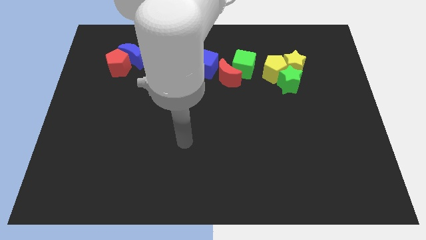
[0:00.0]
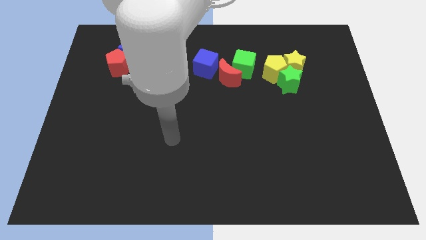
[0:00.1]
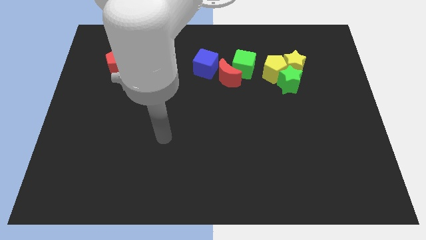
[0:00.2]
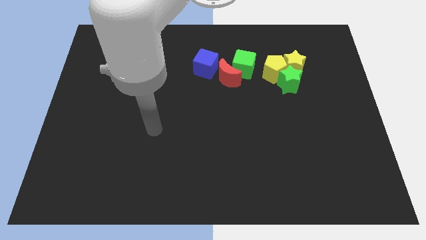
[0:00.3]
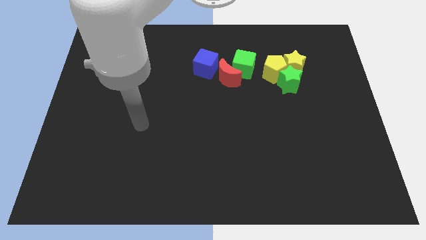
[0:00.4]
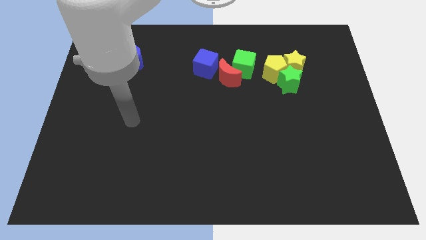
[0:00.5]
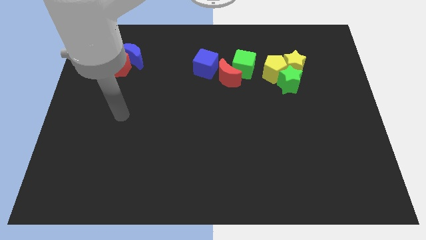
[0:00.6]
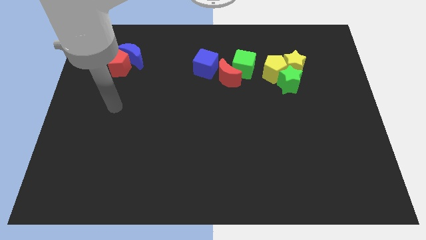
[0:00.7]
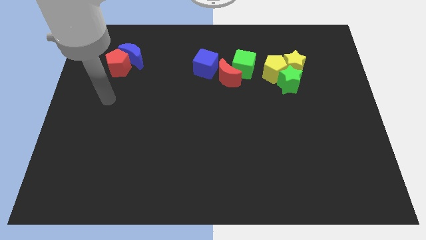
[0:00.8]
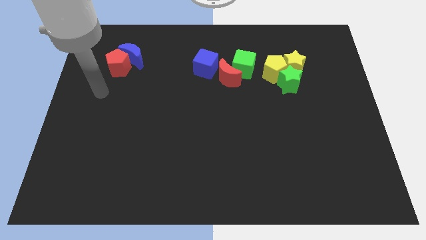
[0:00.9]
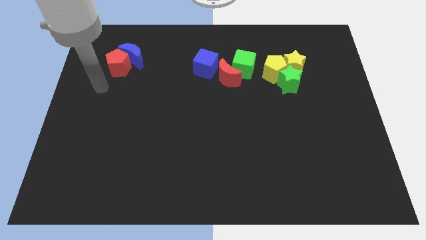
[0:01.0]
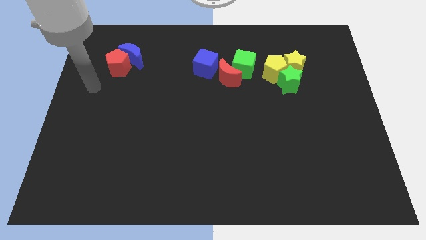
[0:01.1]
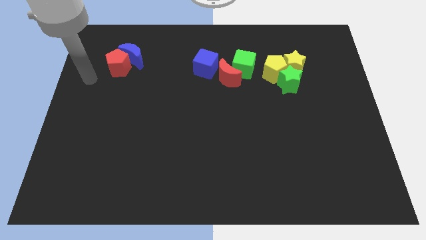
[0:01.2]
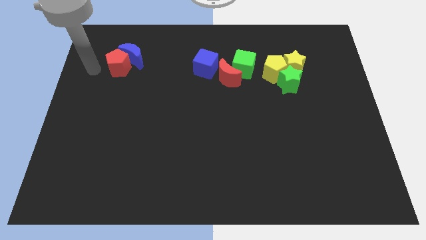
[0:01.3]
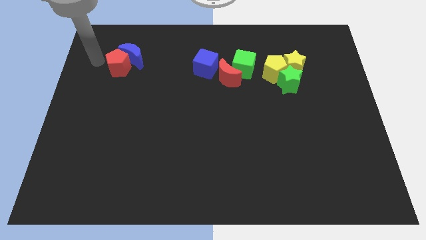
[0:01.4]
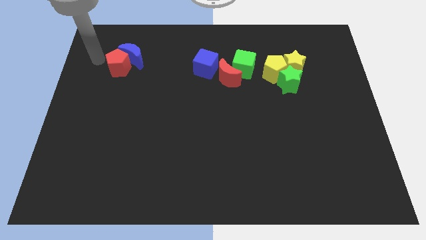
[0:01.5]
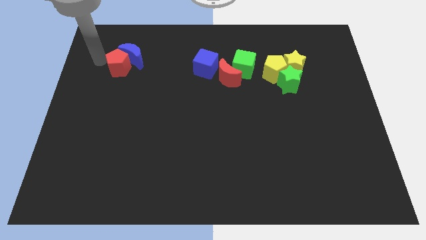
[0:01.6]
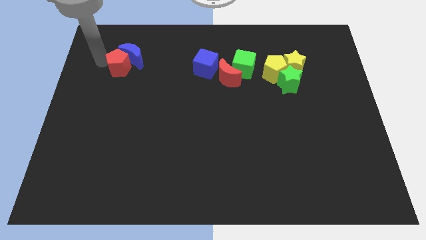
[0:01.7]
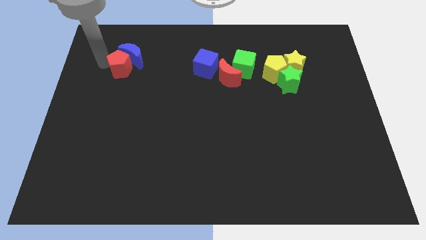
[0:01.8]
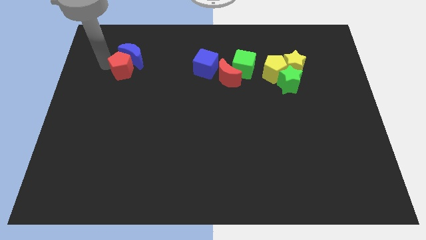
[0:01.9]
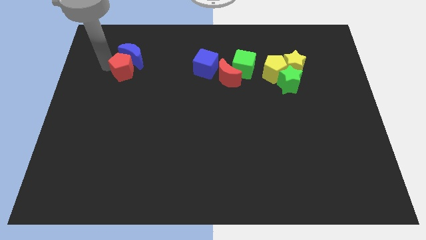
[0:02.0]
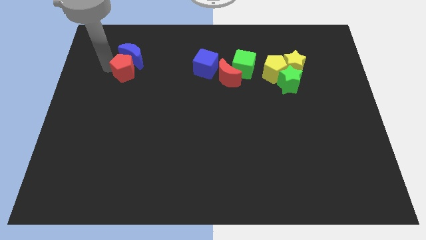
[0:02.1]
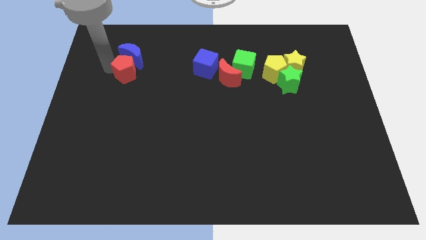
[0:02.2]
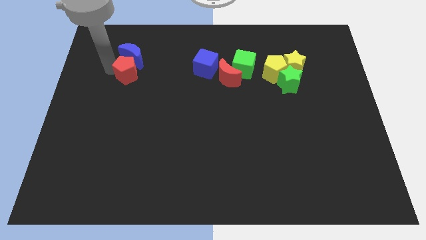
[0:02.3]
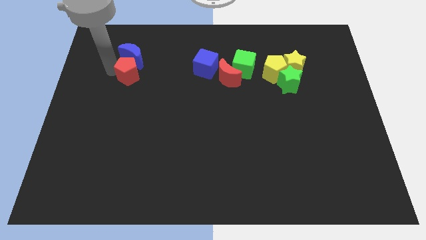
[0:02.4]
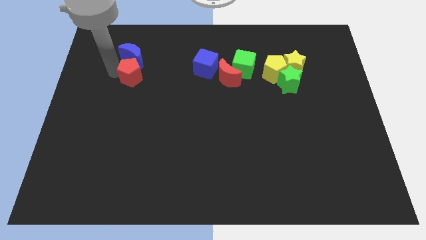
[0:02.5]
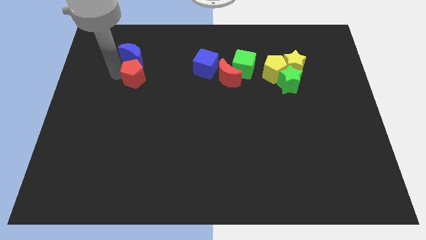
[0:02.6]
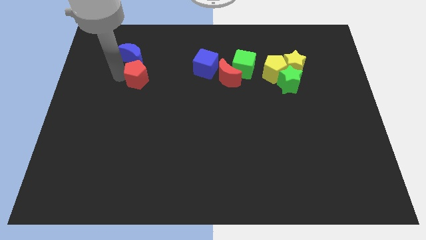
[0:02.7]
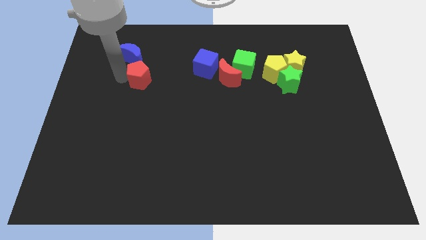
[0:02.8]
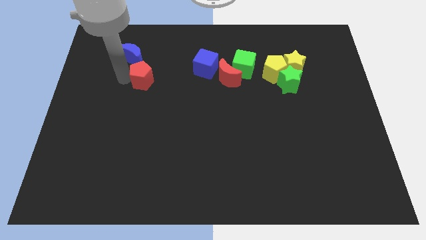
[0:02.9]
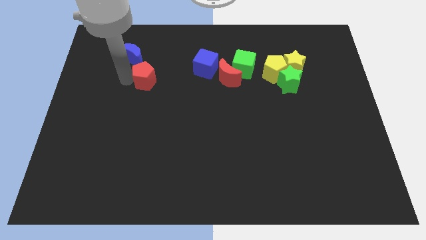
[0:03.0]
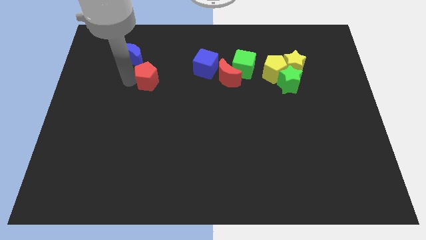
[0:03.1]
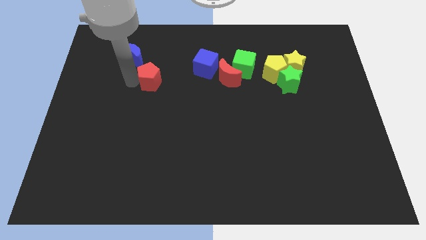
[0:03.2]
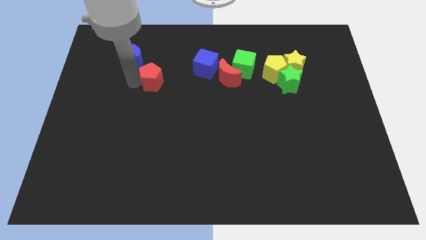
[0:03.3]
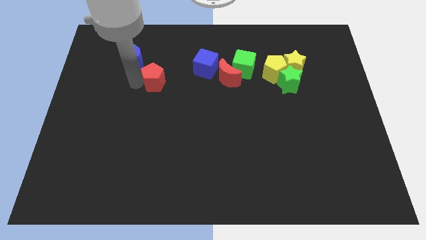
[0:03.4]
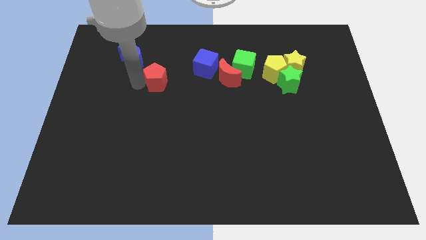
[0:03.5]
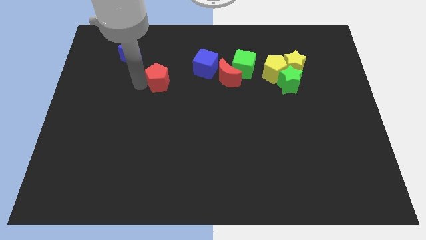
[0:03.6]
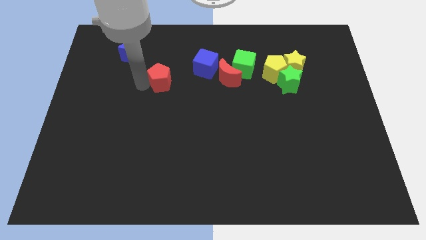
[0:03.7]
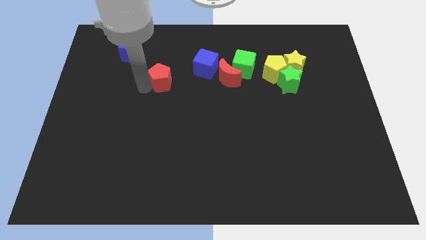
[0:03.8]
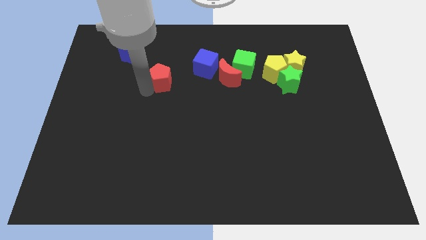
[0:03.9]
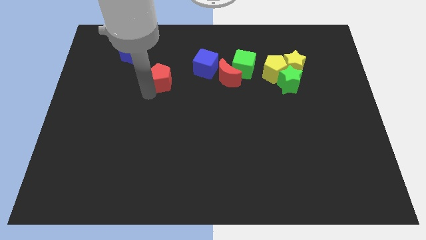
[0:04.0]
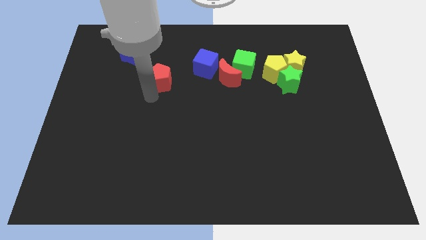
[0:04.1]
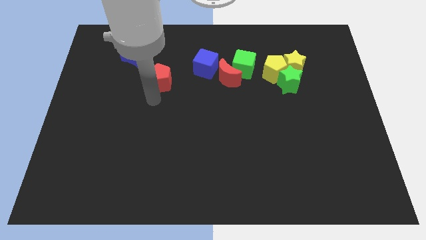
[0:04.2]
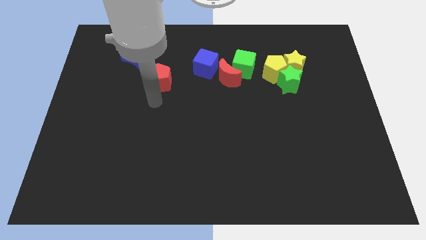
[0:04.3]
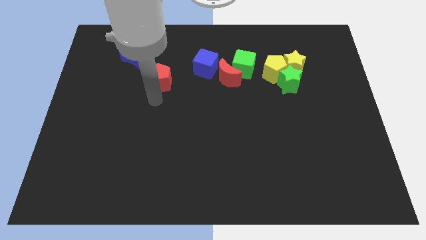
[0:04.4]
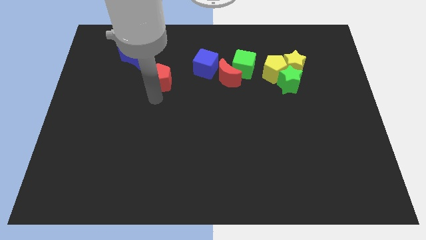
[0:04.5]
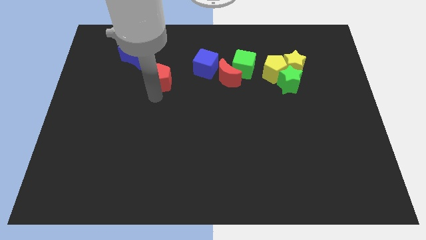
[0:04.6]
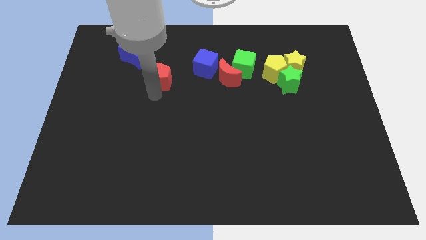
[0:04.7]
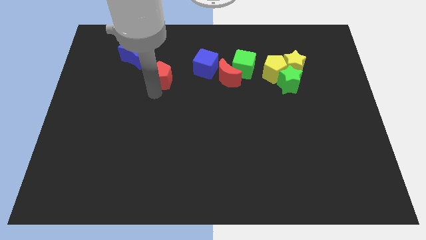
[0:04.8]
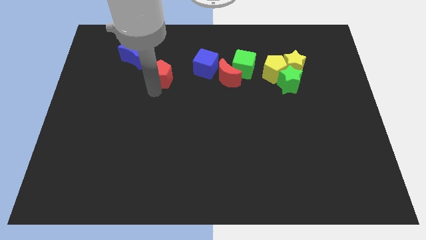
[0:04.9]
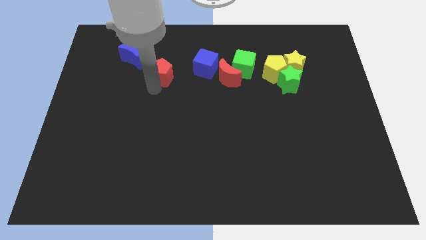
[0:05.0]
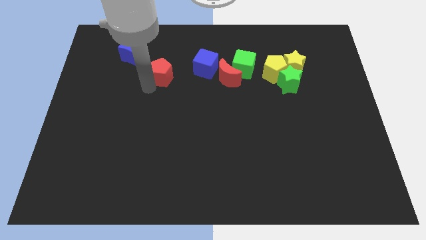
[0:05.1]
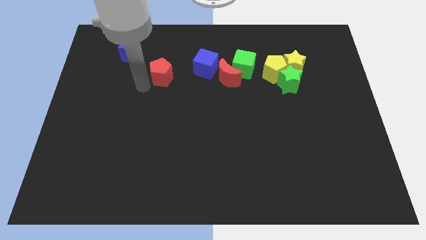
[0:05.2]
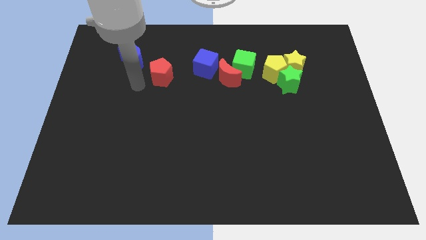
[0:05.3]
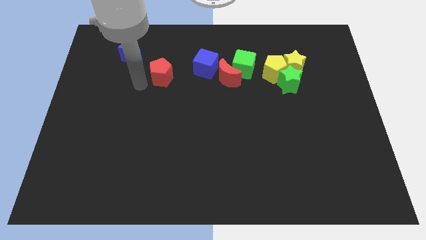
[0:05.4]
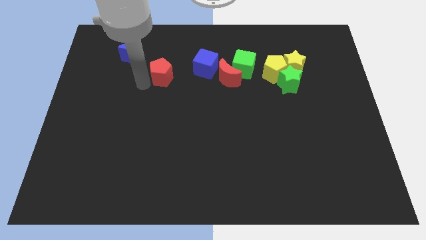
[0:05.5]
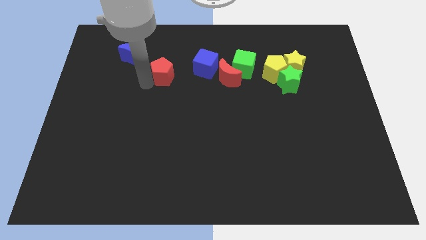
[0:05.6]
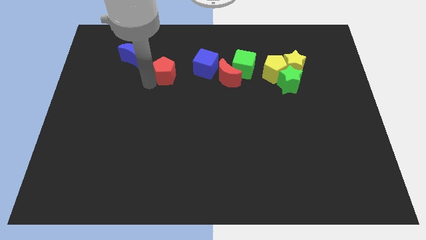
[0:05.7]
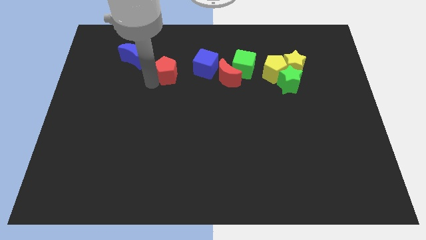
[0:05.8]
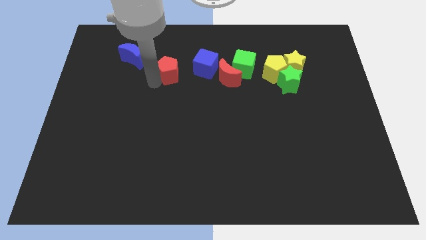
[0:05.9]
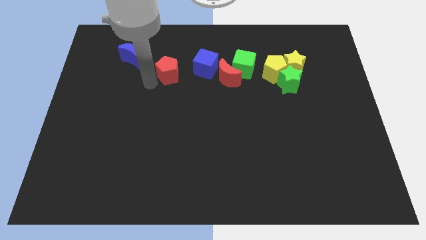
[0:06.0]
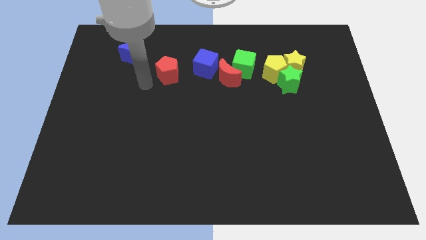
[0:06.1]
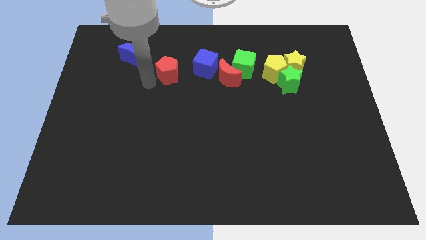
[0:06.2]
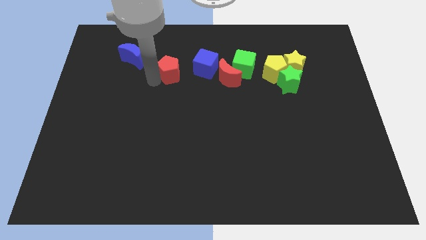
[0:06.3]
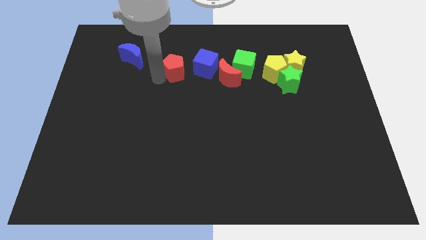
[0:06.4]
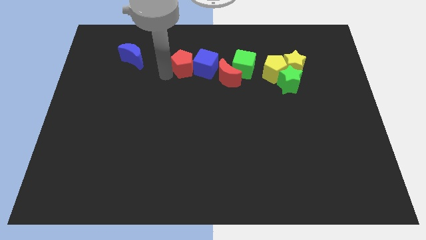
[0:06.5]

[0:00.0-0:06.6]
put the red pentagon close to the blue cube
